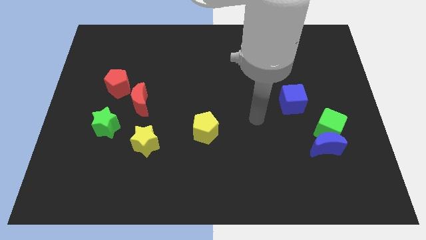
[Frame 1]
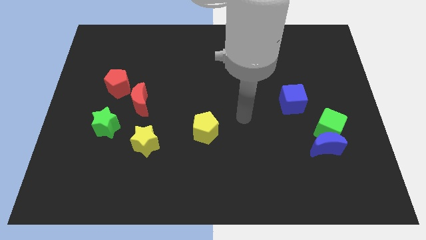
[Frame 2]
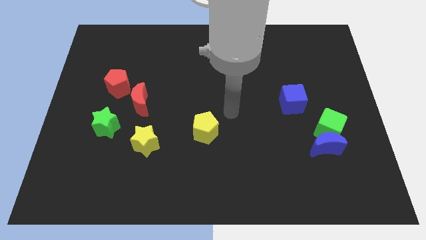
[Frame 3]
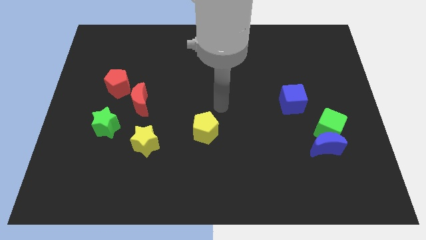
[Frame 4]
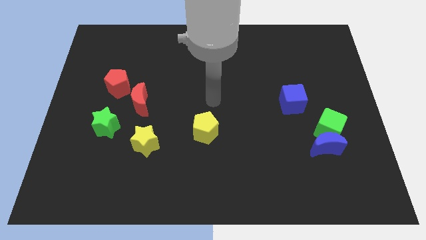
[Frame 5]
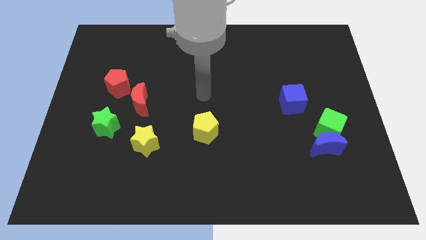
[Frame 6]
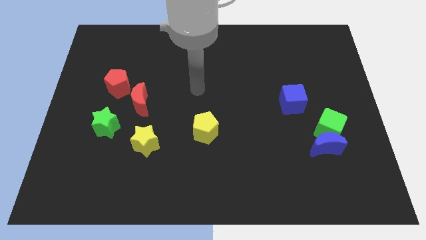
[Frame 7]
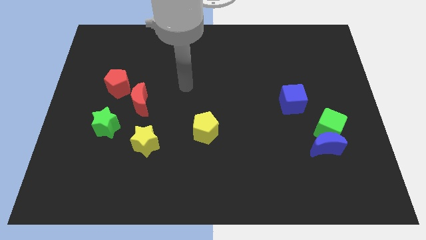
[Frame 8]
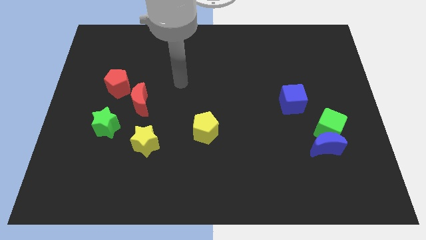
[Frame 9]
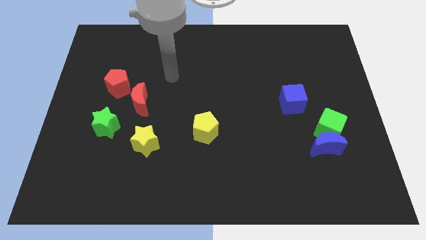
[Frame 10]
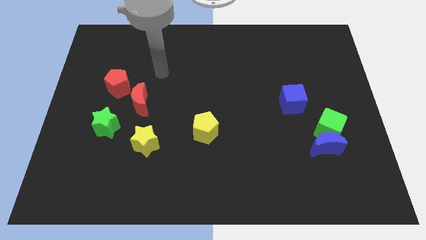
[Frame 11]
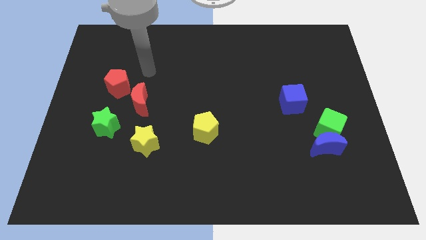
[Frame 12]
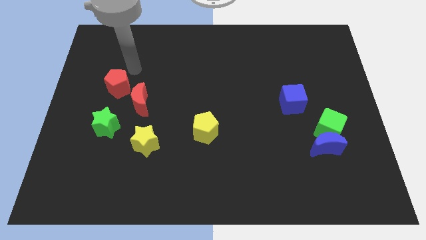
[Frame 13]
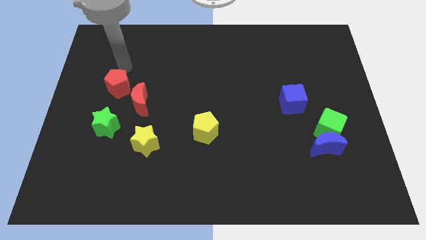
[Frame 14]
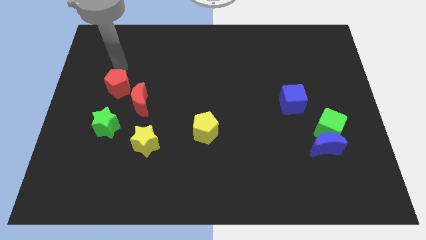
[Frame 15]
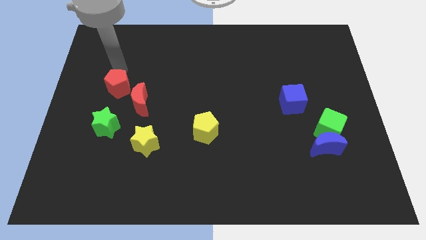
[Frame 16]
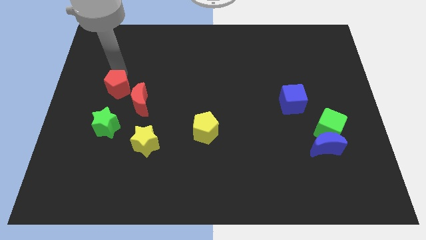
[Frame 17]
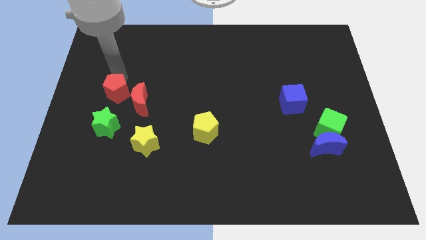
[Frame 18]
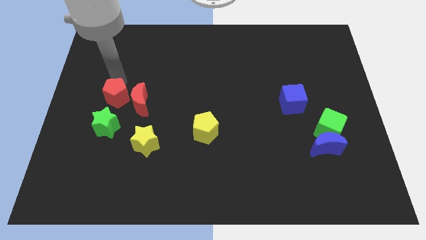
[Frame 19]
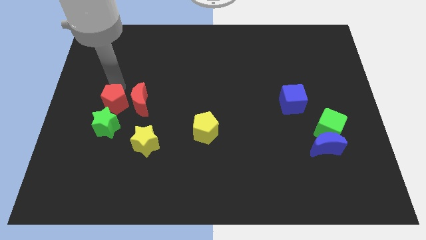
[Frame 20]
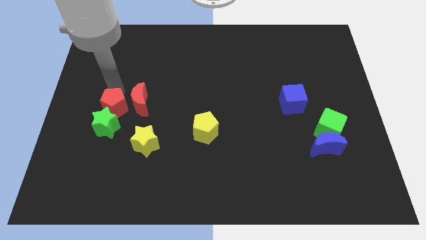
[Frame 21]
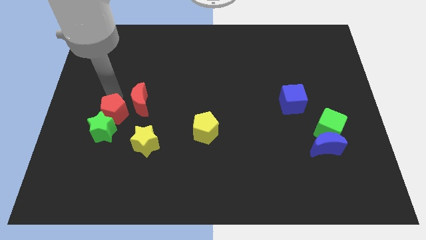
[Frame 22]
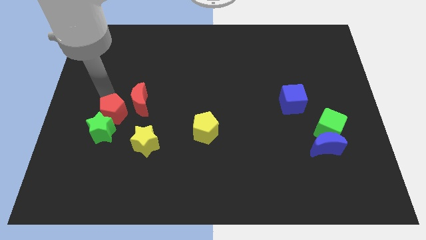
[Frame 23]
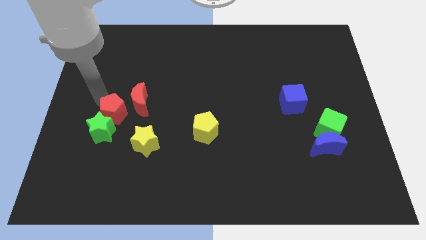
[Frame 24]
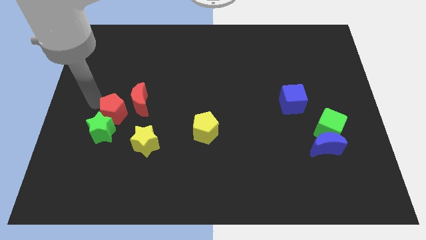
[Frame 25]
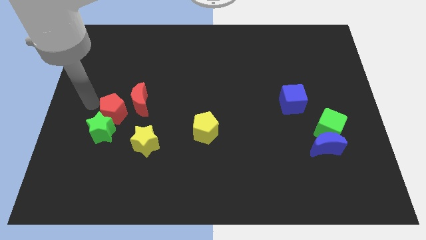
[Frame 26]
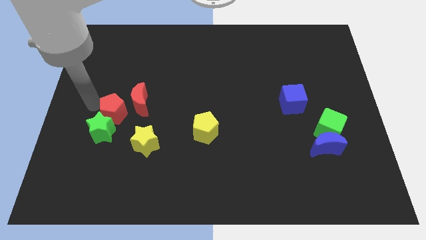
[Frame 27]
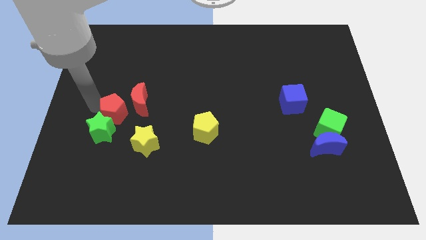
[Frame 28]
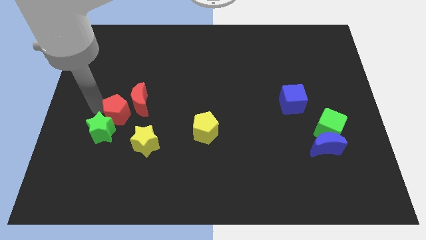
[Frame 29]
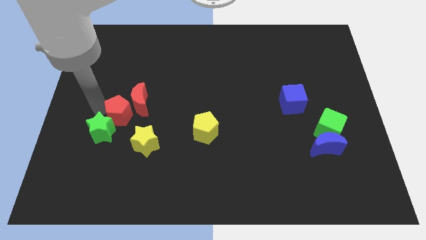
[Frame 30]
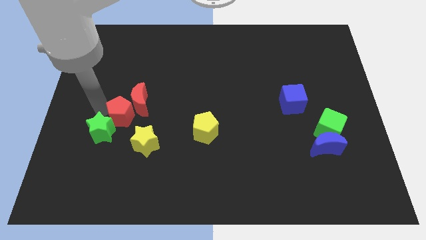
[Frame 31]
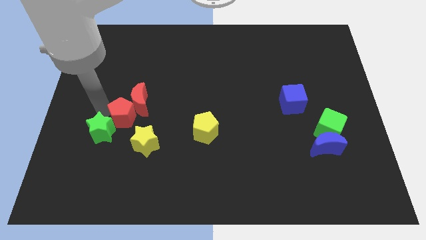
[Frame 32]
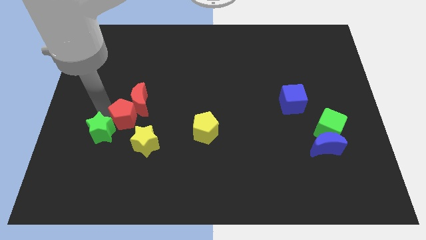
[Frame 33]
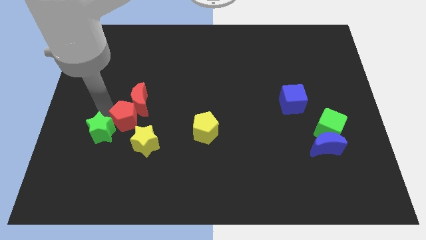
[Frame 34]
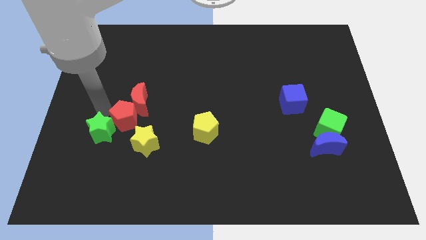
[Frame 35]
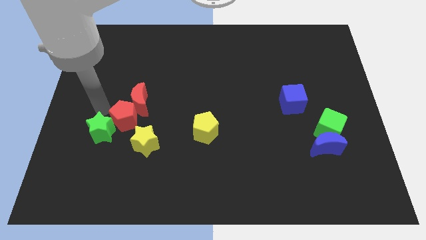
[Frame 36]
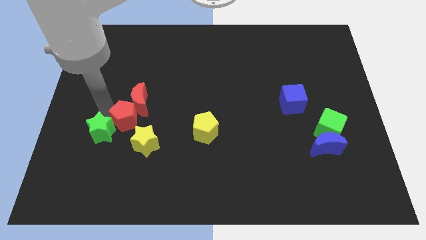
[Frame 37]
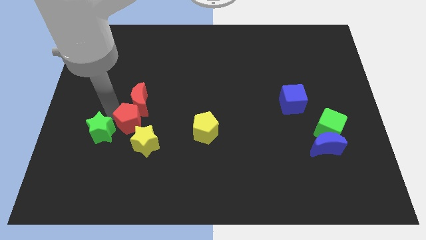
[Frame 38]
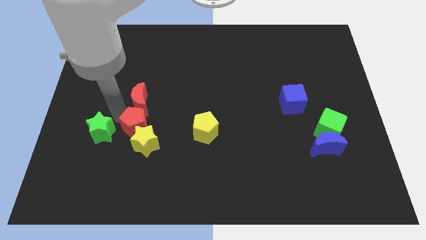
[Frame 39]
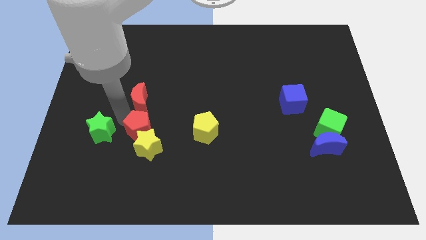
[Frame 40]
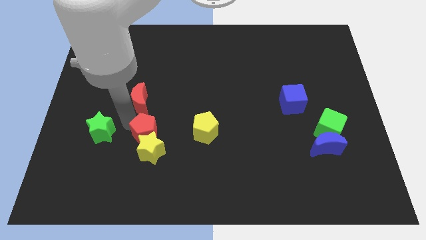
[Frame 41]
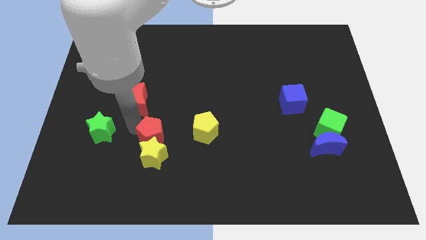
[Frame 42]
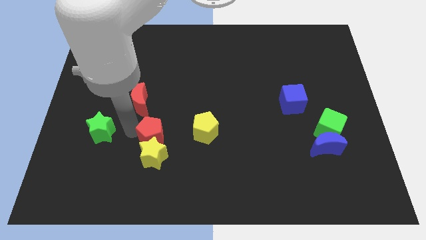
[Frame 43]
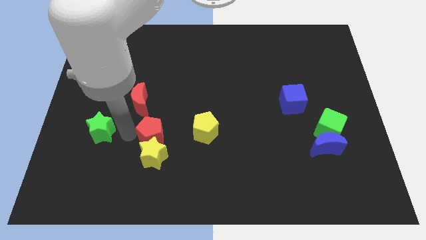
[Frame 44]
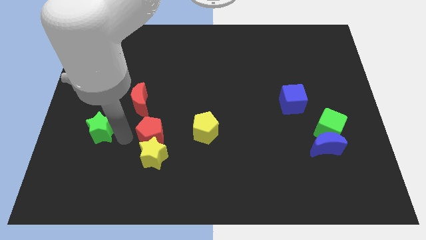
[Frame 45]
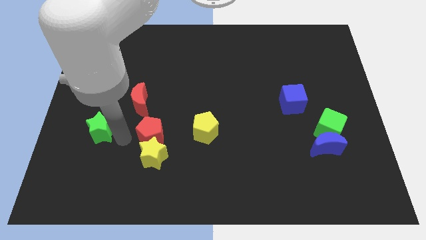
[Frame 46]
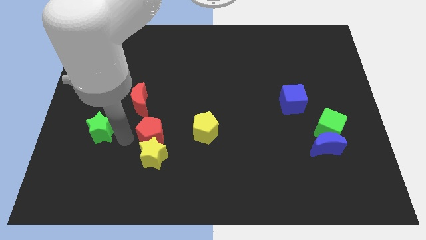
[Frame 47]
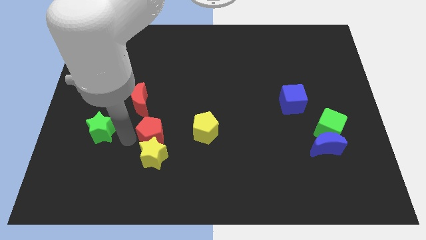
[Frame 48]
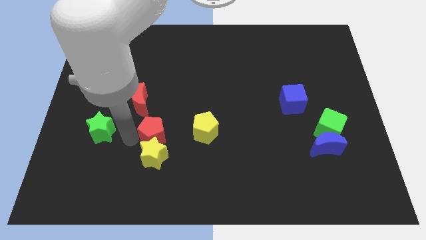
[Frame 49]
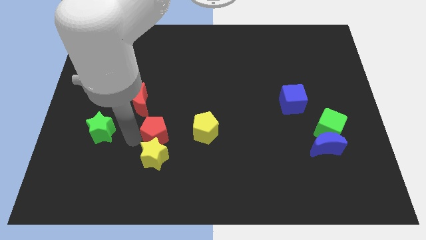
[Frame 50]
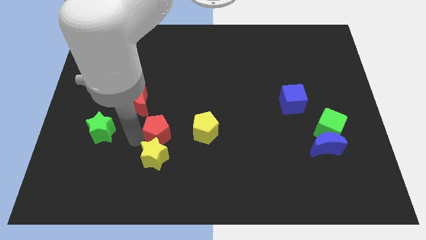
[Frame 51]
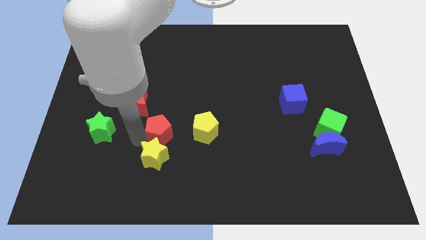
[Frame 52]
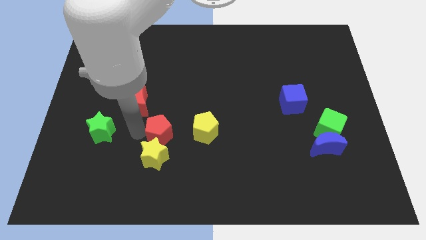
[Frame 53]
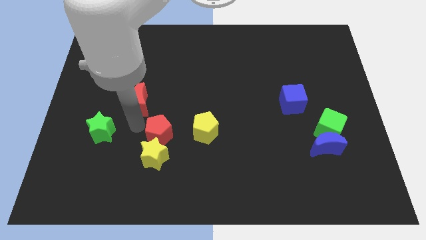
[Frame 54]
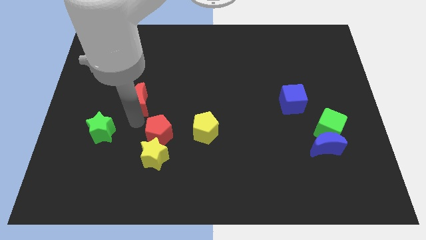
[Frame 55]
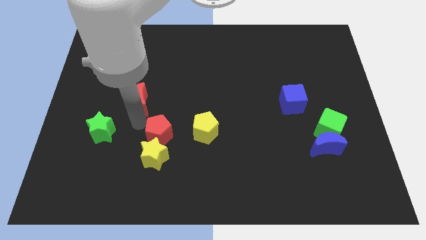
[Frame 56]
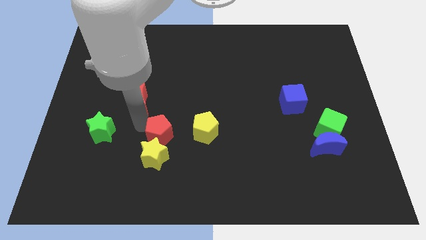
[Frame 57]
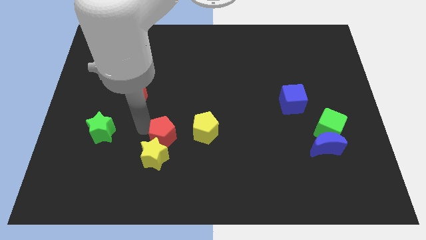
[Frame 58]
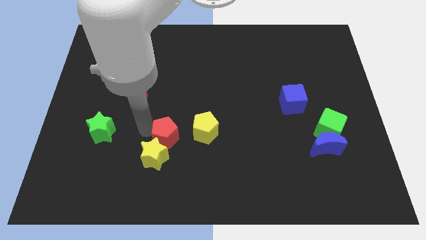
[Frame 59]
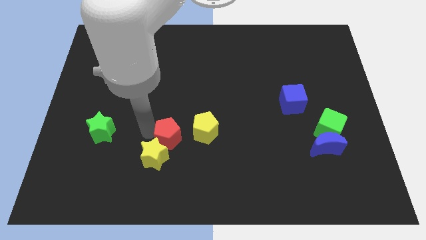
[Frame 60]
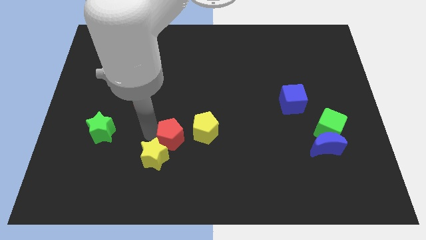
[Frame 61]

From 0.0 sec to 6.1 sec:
slide the red pentagon downwards and right diagonally

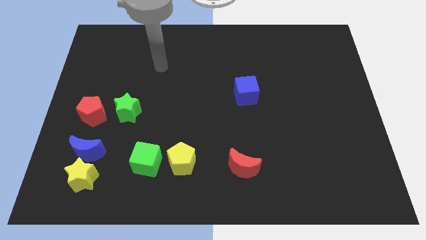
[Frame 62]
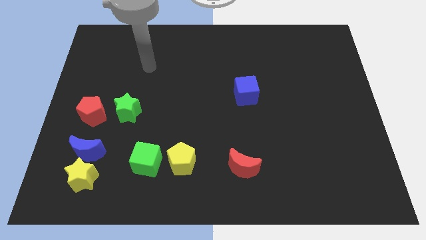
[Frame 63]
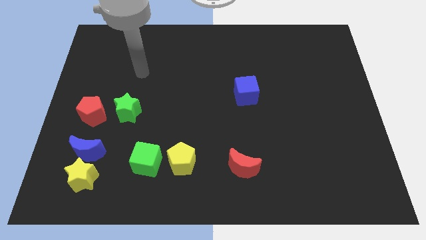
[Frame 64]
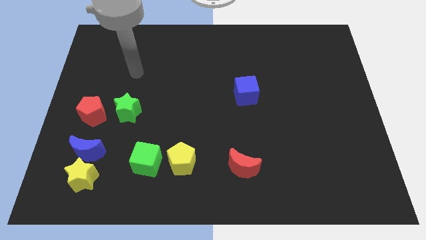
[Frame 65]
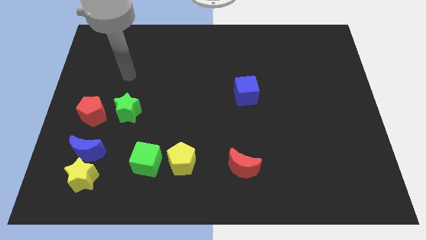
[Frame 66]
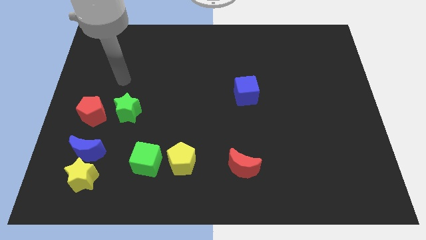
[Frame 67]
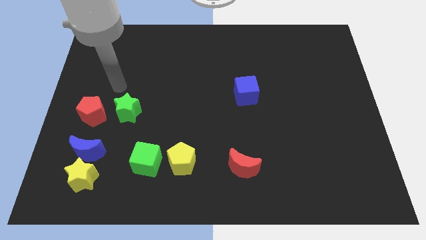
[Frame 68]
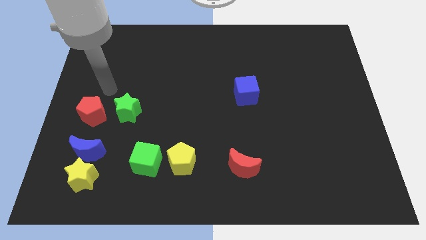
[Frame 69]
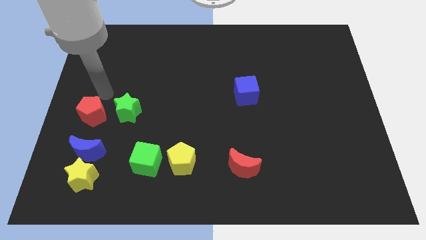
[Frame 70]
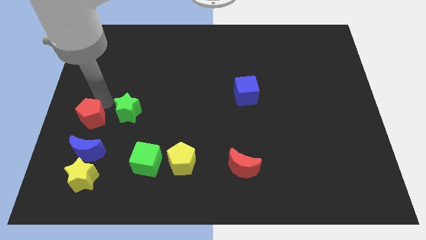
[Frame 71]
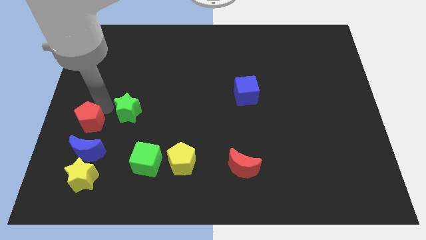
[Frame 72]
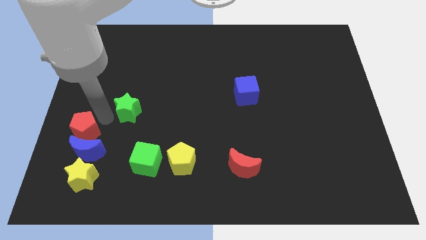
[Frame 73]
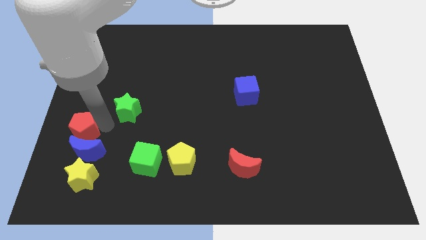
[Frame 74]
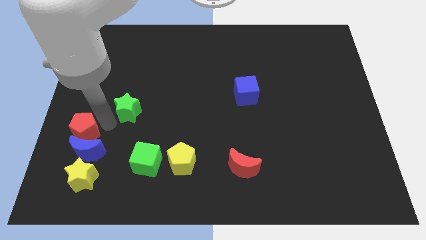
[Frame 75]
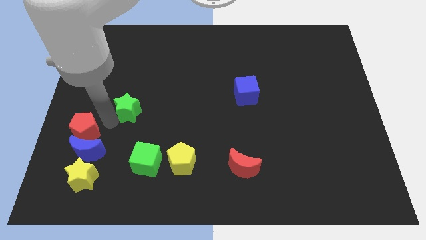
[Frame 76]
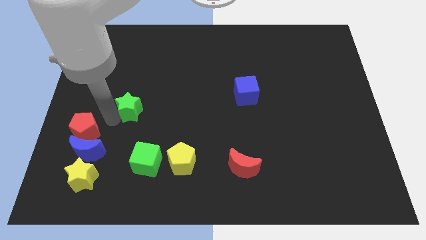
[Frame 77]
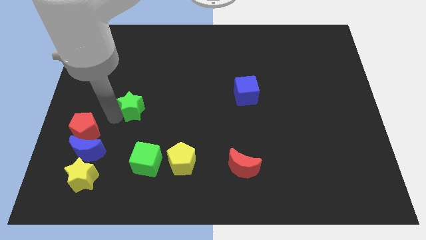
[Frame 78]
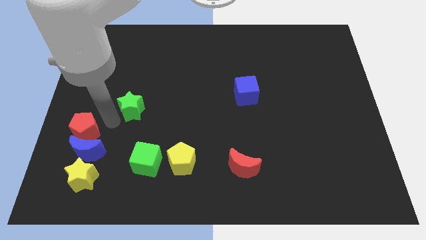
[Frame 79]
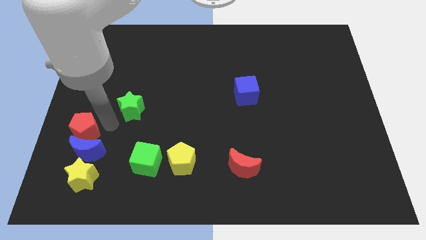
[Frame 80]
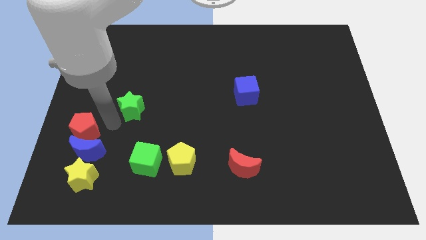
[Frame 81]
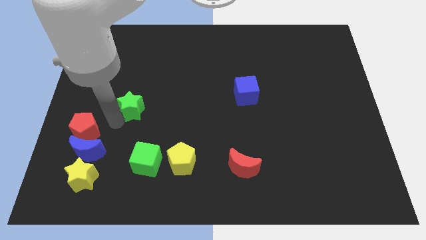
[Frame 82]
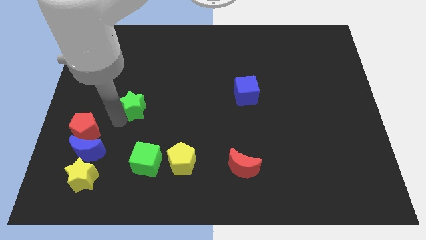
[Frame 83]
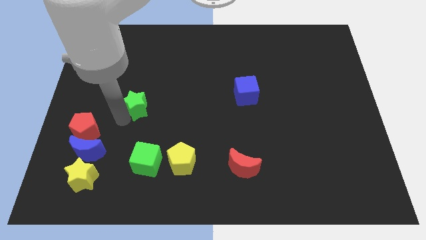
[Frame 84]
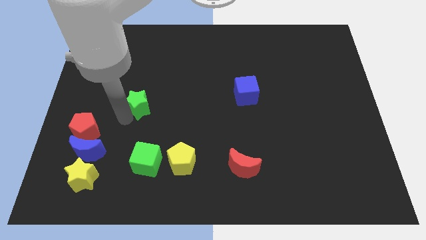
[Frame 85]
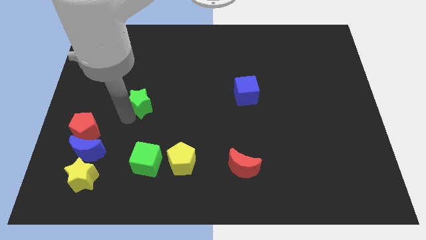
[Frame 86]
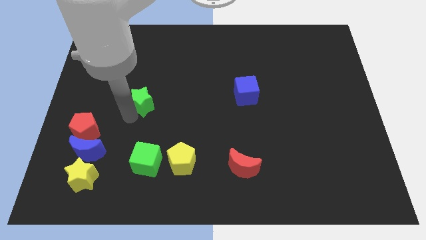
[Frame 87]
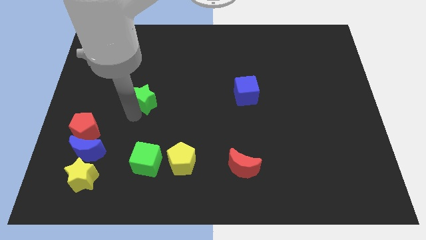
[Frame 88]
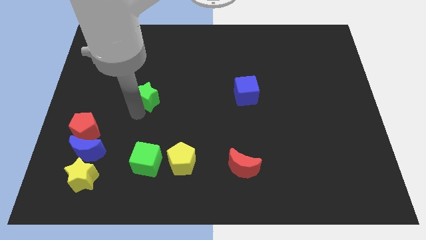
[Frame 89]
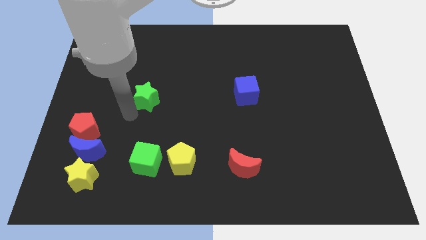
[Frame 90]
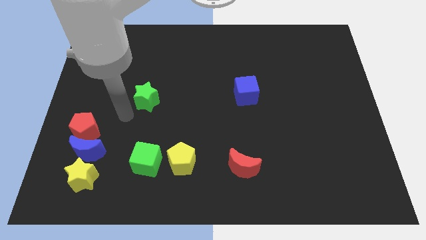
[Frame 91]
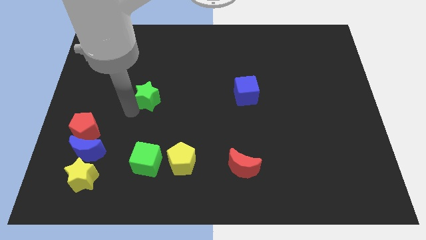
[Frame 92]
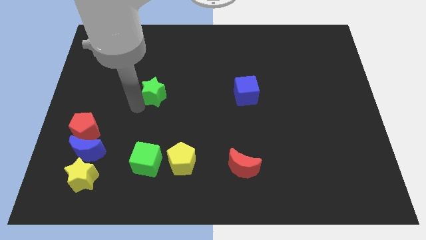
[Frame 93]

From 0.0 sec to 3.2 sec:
slide the green star upwards and to the right diagonally a bit
